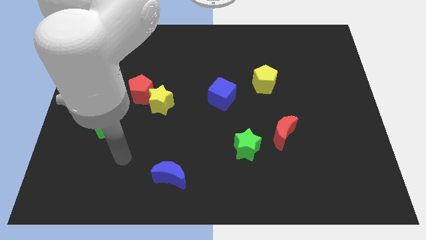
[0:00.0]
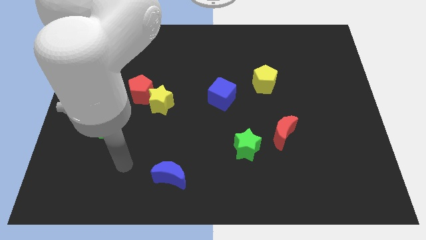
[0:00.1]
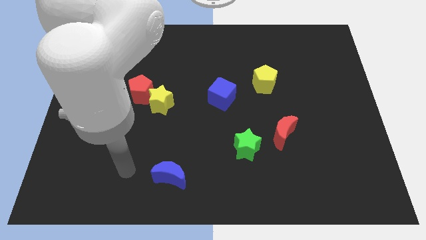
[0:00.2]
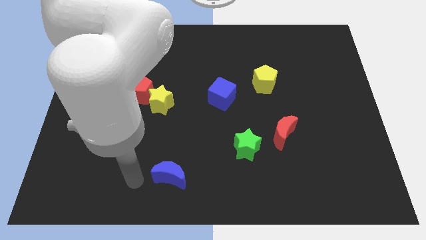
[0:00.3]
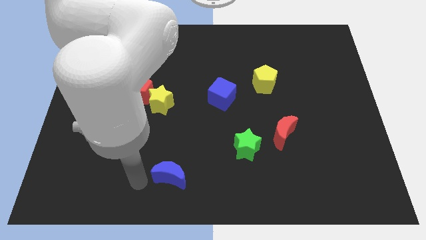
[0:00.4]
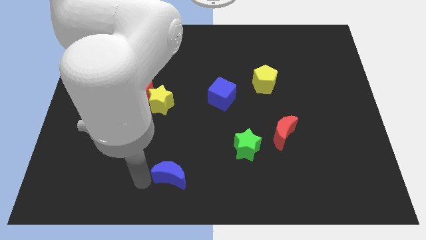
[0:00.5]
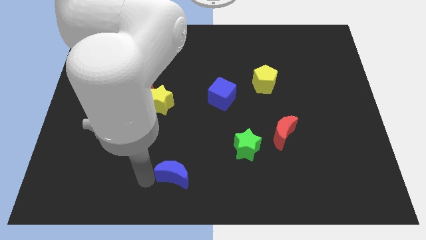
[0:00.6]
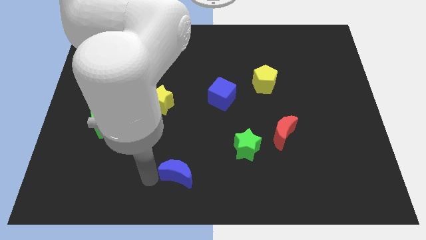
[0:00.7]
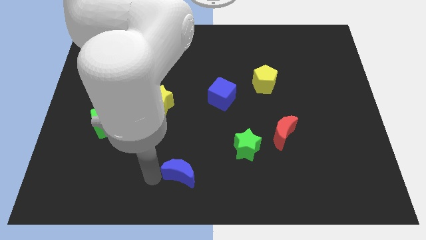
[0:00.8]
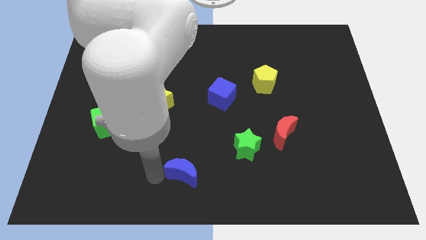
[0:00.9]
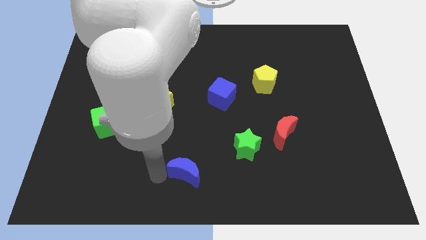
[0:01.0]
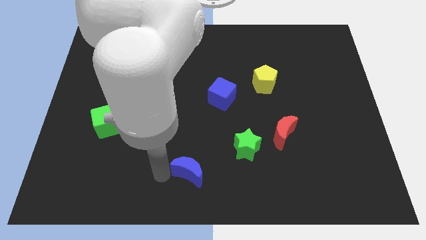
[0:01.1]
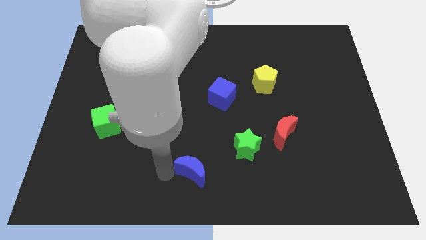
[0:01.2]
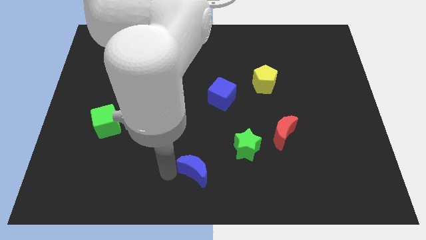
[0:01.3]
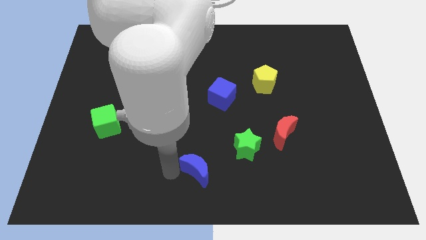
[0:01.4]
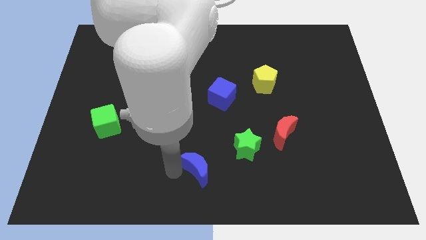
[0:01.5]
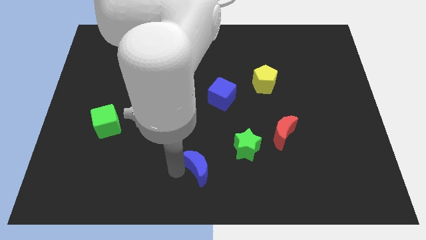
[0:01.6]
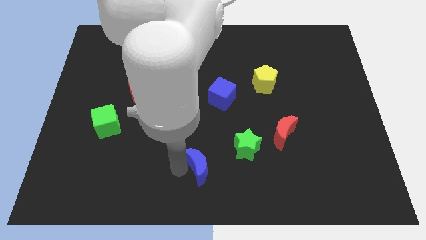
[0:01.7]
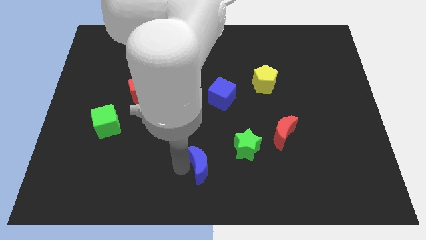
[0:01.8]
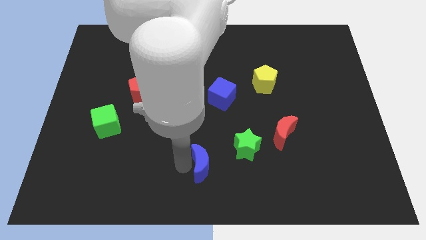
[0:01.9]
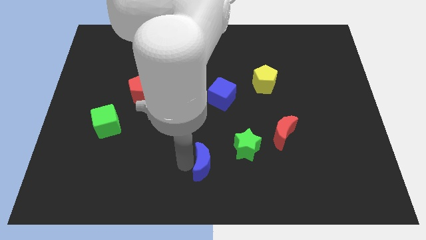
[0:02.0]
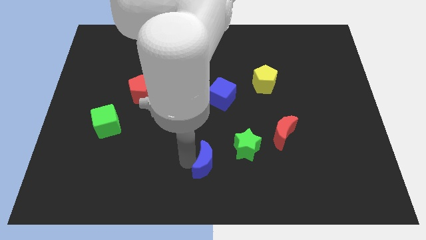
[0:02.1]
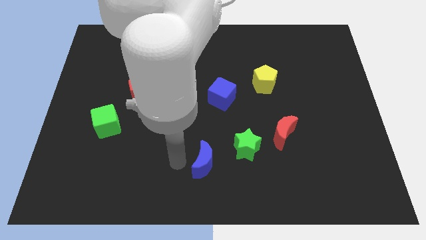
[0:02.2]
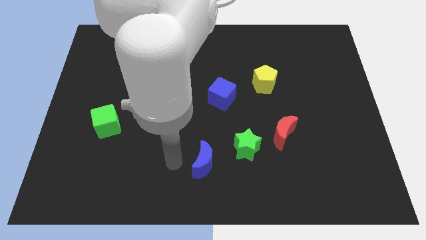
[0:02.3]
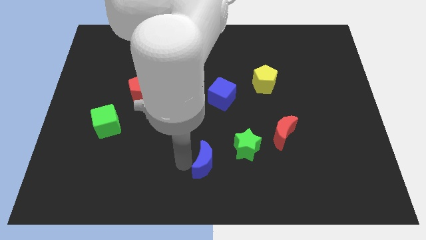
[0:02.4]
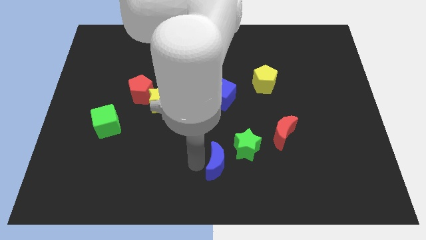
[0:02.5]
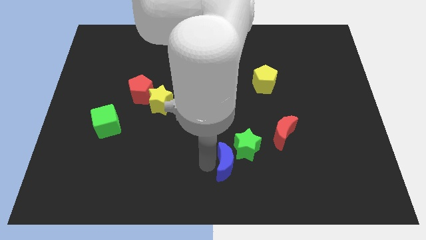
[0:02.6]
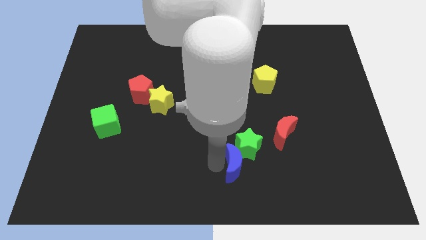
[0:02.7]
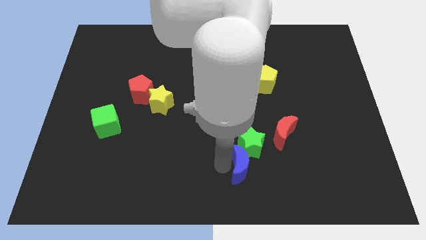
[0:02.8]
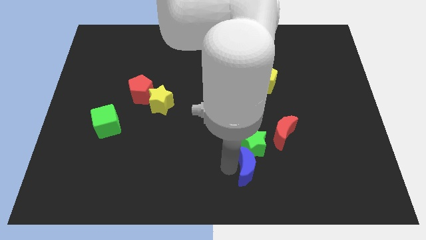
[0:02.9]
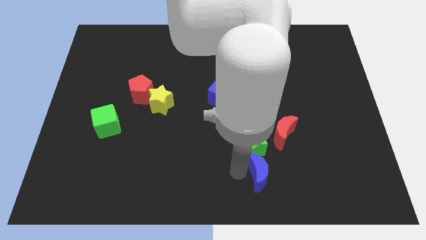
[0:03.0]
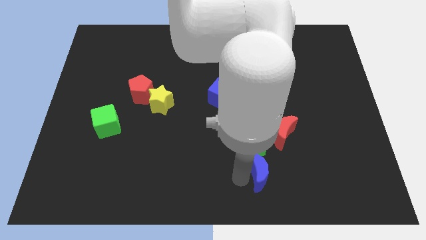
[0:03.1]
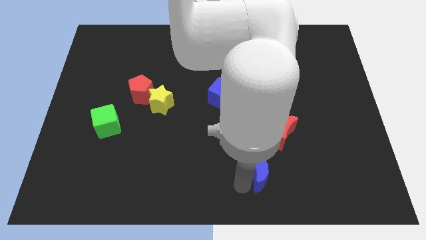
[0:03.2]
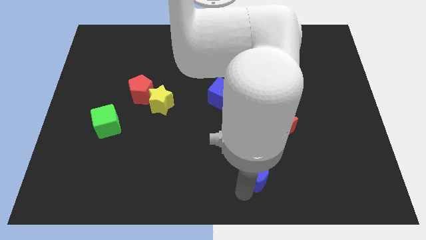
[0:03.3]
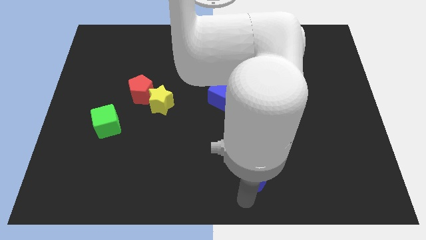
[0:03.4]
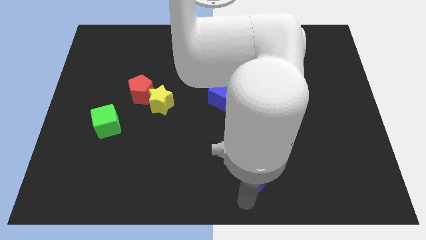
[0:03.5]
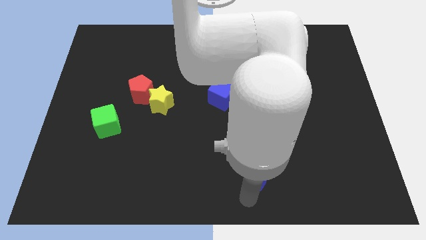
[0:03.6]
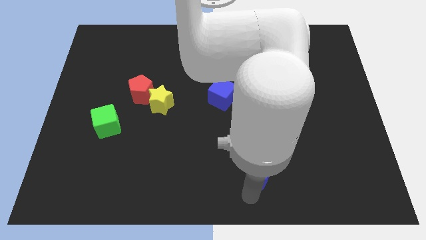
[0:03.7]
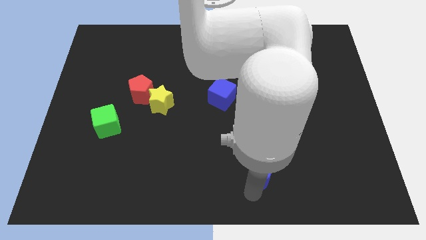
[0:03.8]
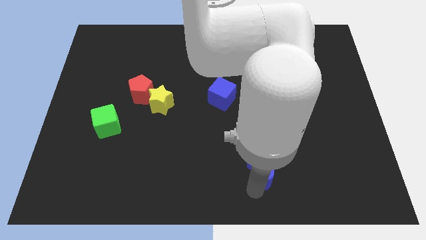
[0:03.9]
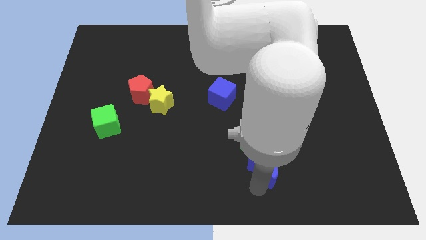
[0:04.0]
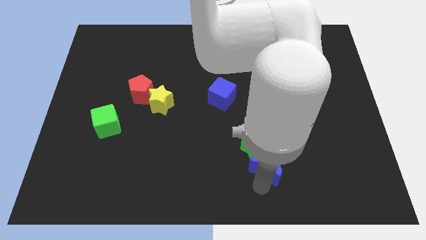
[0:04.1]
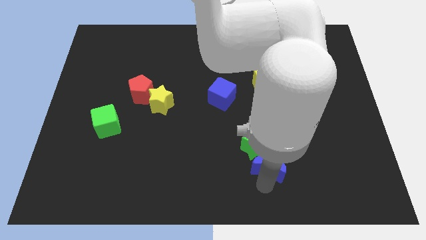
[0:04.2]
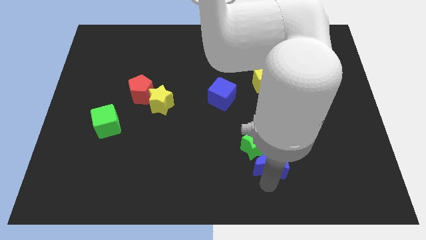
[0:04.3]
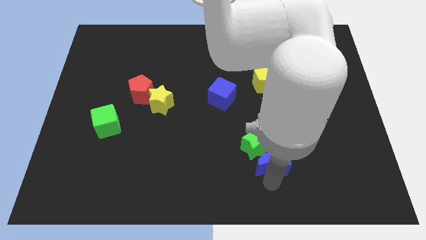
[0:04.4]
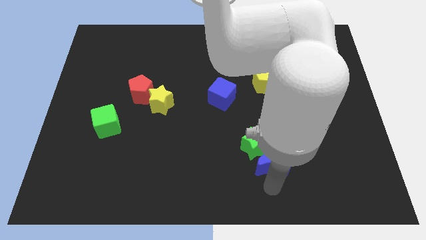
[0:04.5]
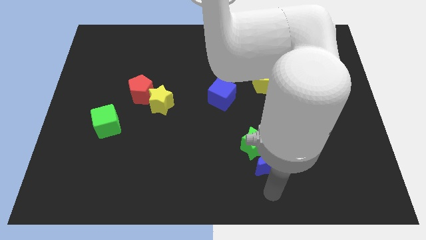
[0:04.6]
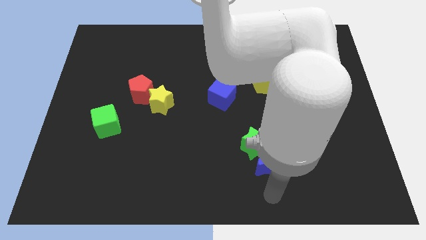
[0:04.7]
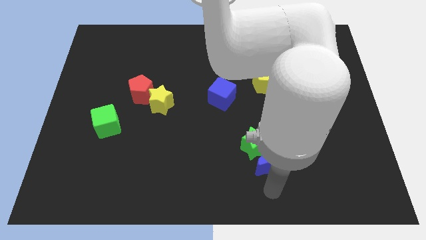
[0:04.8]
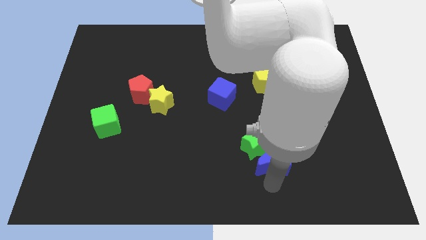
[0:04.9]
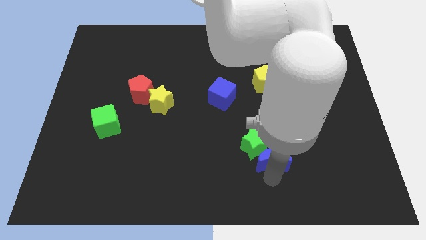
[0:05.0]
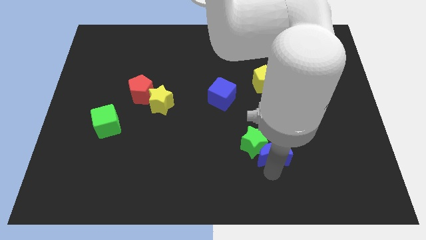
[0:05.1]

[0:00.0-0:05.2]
put the blue moon to the red moon

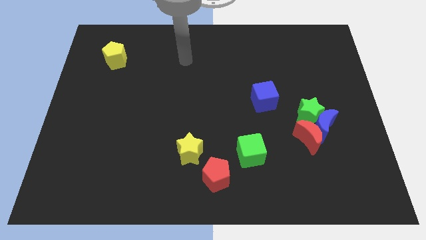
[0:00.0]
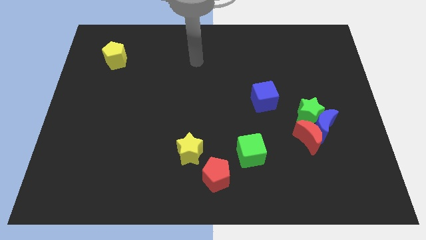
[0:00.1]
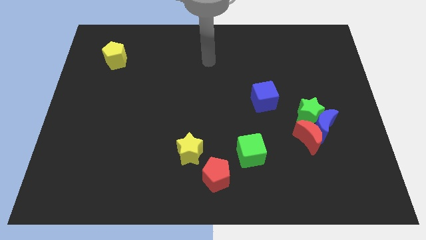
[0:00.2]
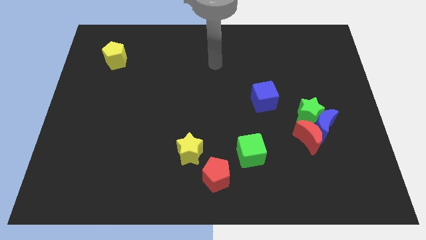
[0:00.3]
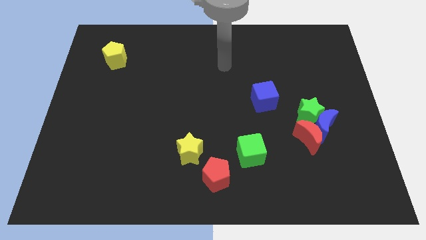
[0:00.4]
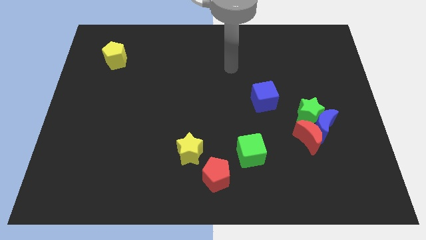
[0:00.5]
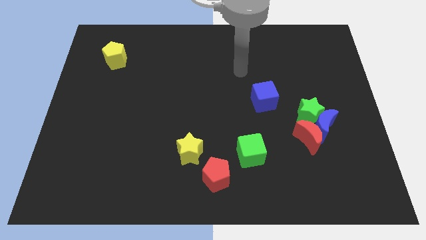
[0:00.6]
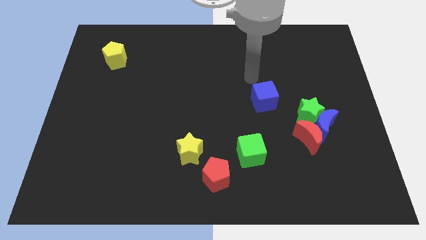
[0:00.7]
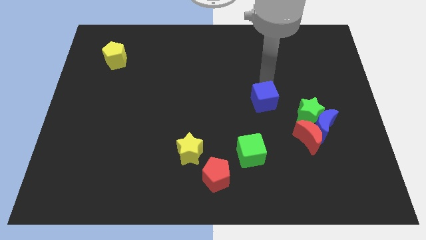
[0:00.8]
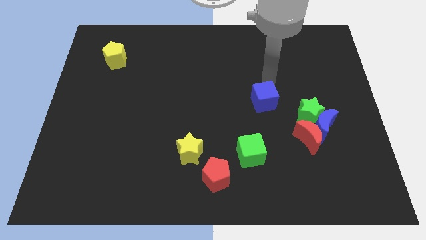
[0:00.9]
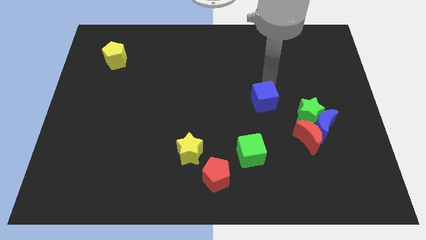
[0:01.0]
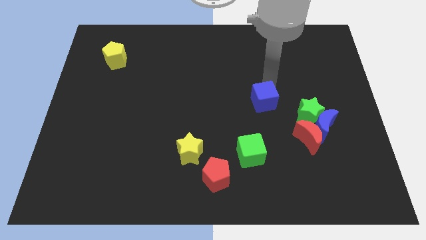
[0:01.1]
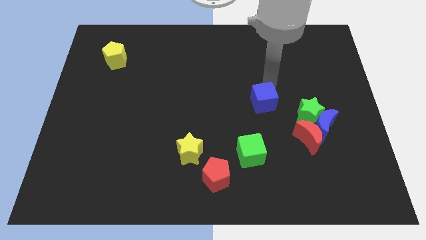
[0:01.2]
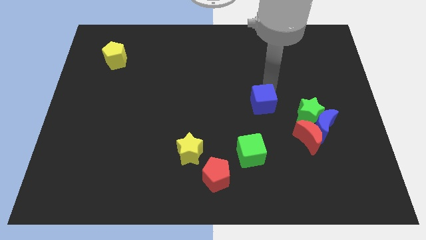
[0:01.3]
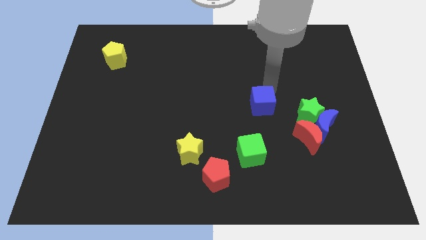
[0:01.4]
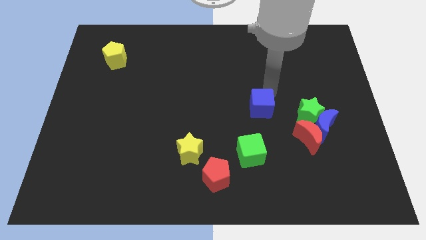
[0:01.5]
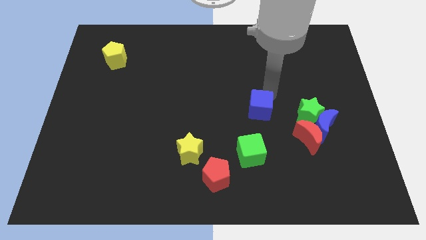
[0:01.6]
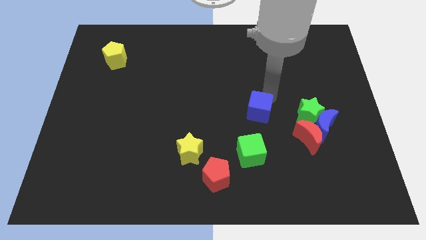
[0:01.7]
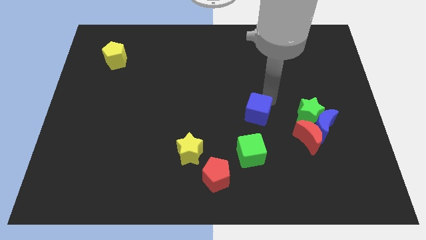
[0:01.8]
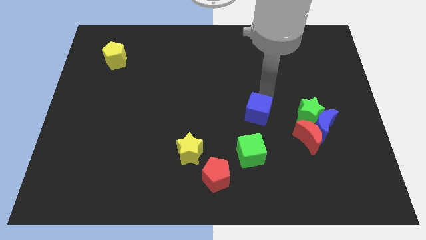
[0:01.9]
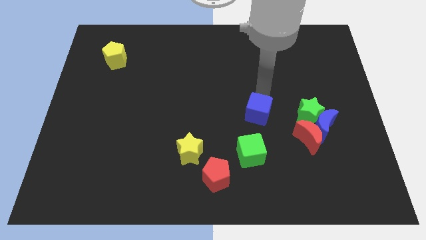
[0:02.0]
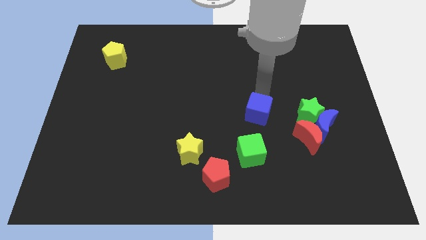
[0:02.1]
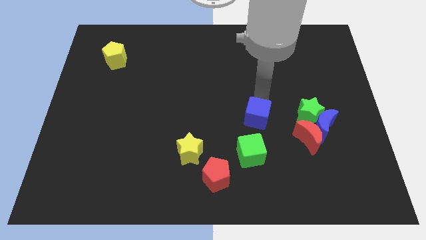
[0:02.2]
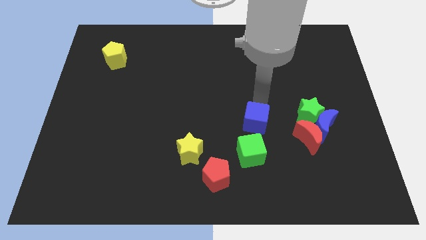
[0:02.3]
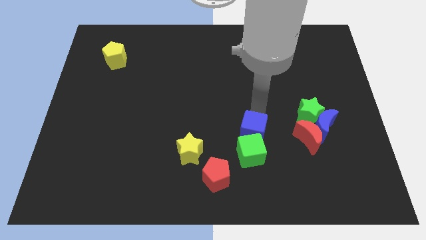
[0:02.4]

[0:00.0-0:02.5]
push the blue cube next to the green cube

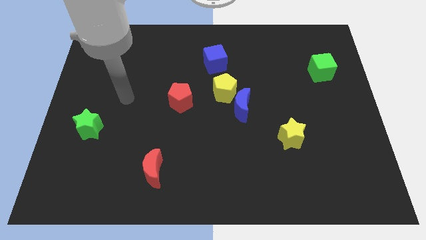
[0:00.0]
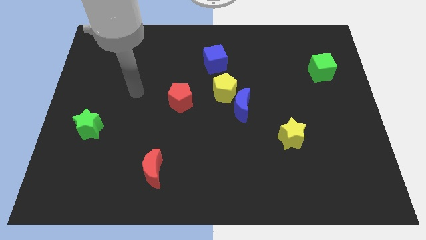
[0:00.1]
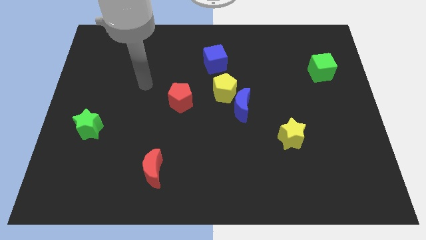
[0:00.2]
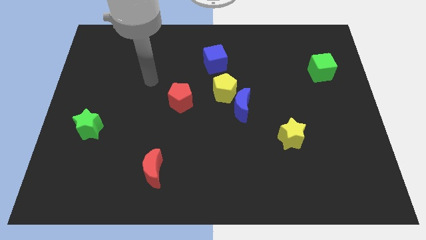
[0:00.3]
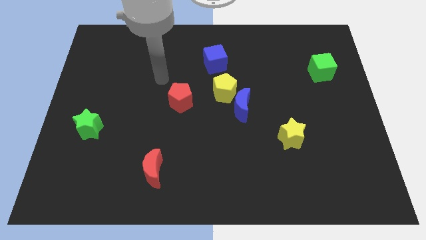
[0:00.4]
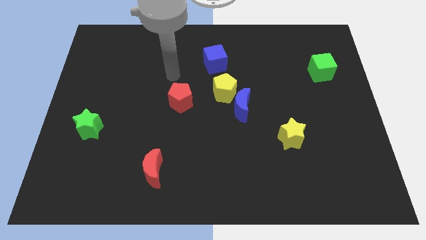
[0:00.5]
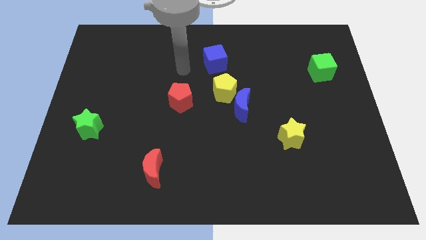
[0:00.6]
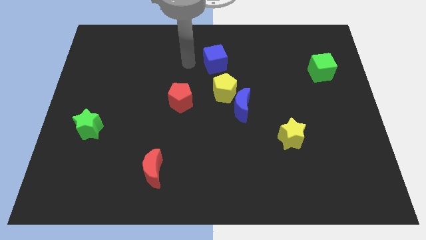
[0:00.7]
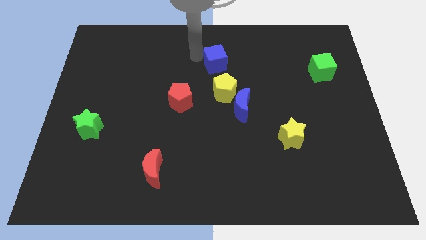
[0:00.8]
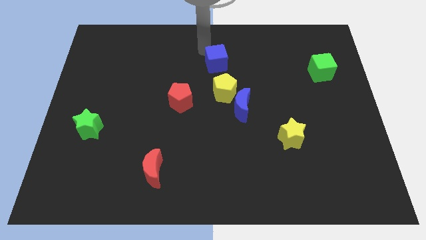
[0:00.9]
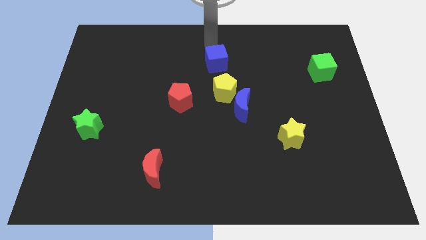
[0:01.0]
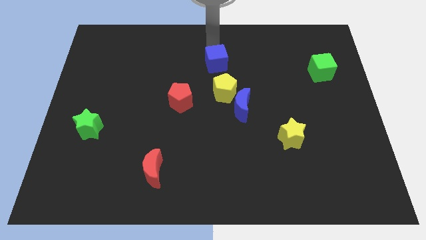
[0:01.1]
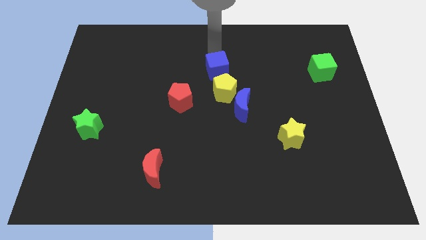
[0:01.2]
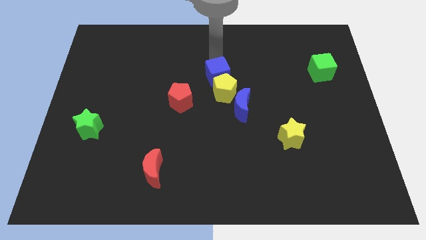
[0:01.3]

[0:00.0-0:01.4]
put the blue cube to the yellow pentagon
